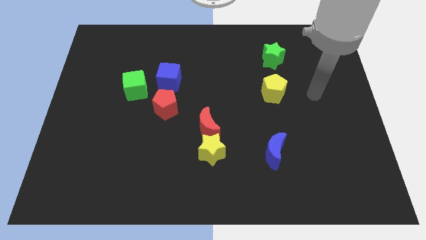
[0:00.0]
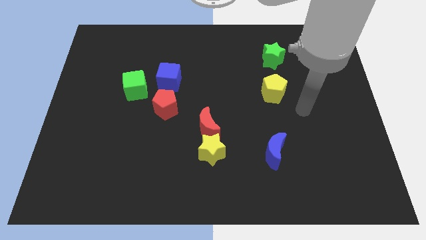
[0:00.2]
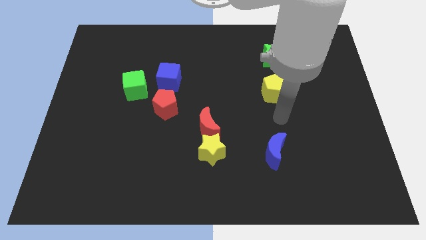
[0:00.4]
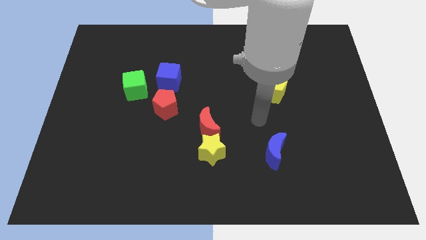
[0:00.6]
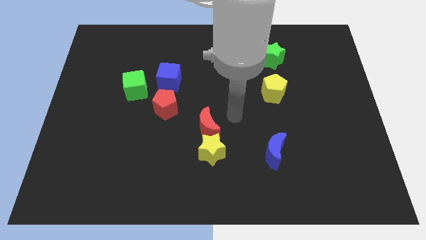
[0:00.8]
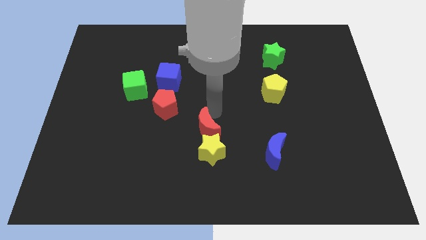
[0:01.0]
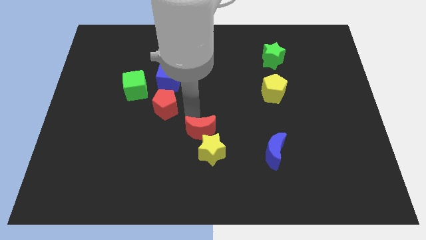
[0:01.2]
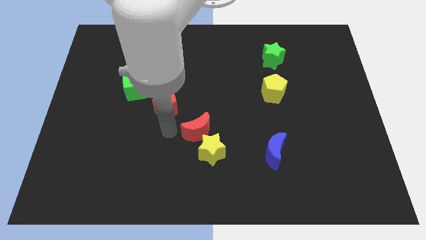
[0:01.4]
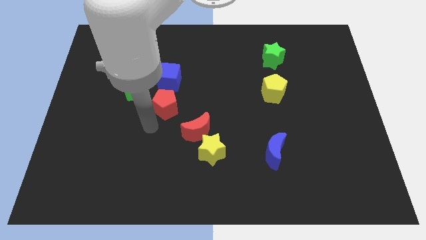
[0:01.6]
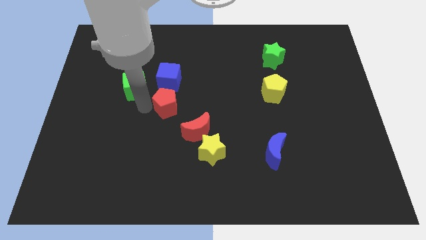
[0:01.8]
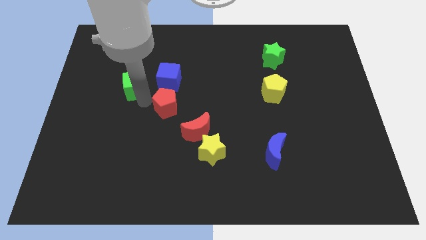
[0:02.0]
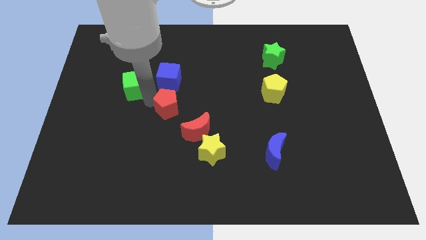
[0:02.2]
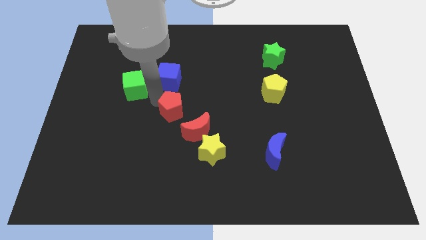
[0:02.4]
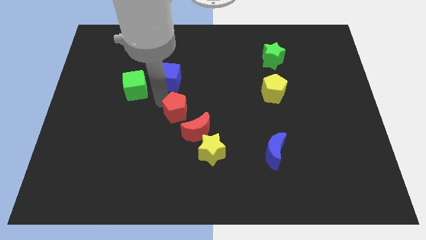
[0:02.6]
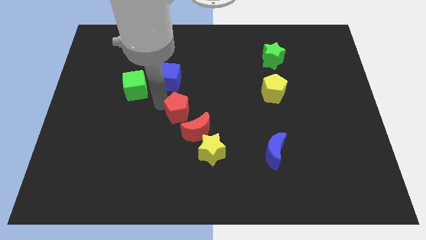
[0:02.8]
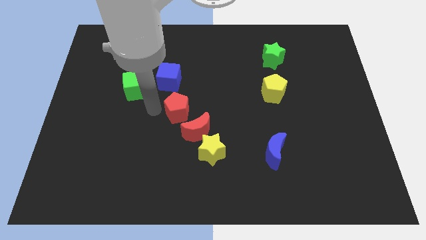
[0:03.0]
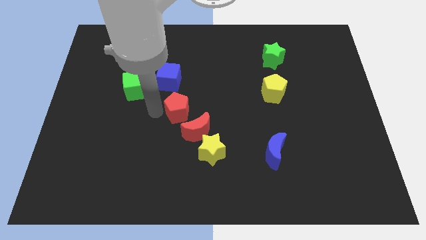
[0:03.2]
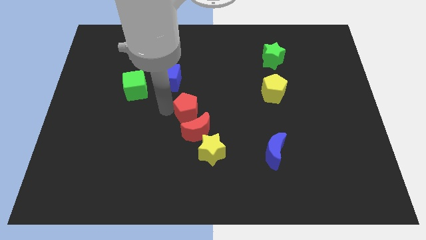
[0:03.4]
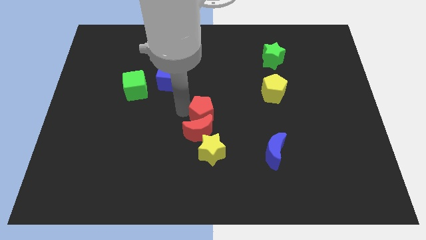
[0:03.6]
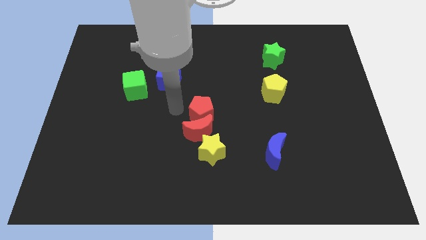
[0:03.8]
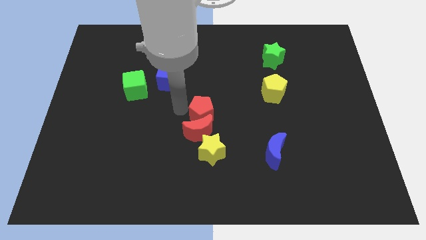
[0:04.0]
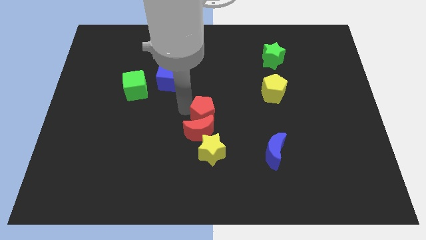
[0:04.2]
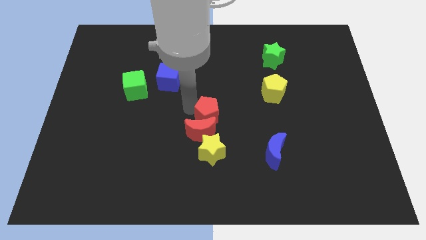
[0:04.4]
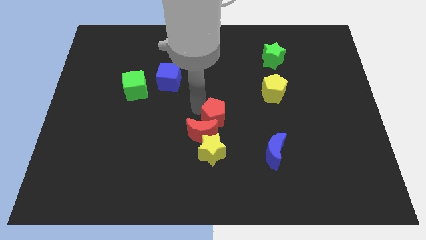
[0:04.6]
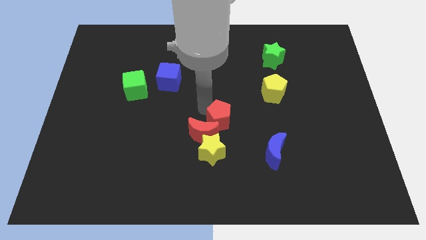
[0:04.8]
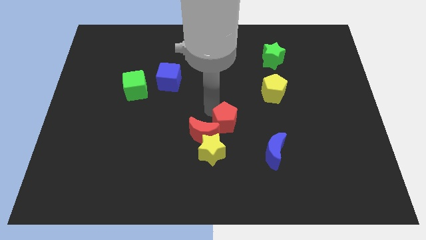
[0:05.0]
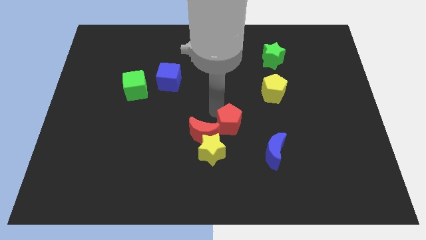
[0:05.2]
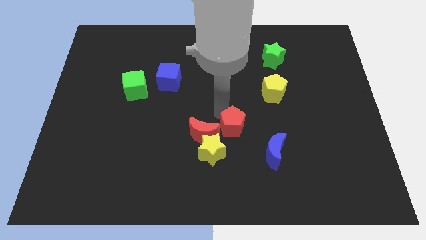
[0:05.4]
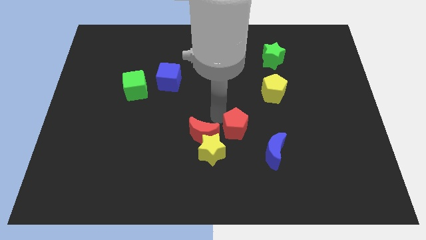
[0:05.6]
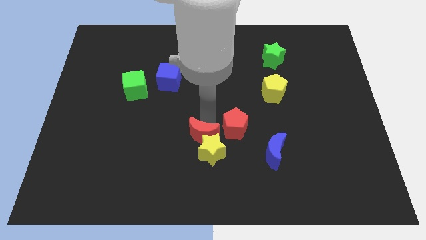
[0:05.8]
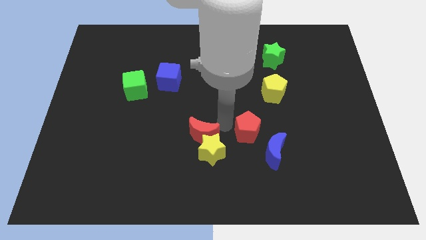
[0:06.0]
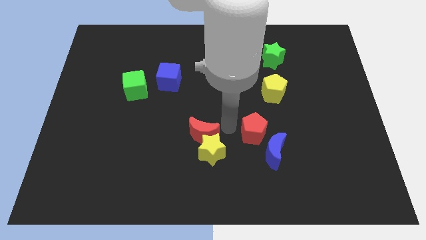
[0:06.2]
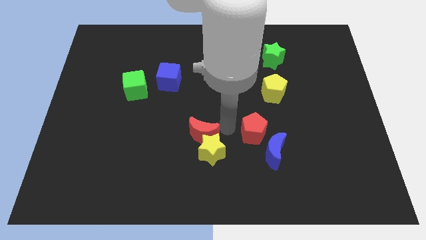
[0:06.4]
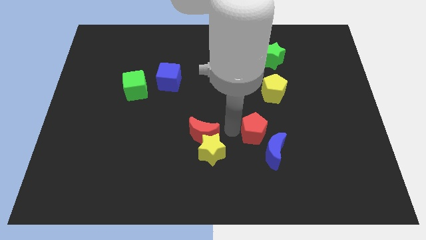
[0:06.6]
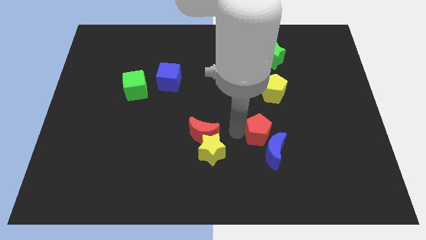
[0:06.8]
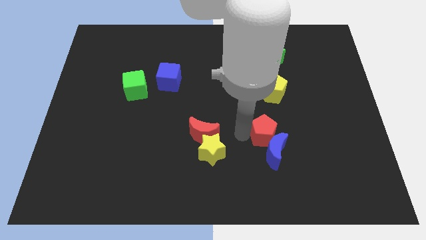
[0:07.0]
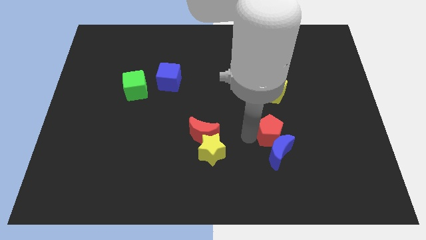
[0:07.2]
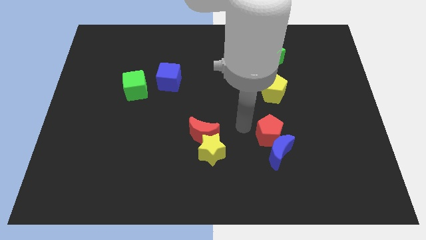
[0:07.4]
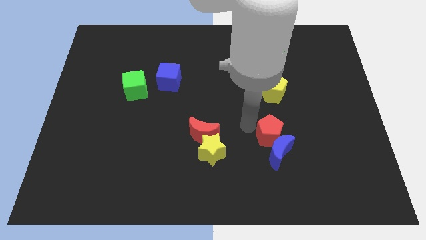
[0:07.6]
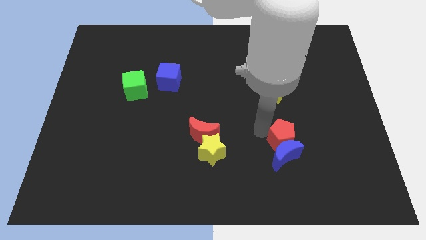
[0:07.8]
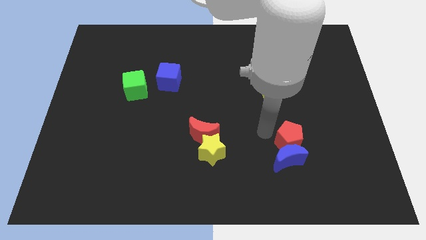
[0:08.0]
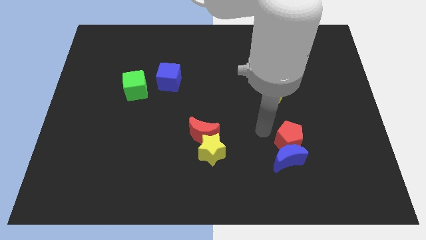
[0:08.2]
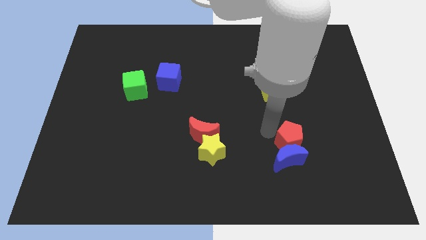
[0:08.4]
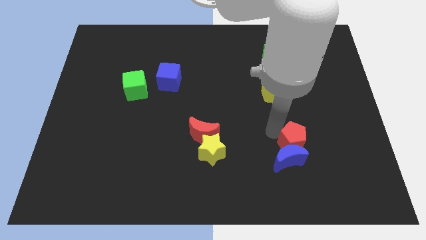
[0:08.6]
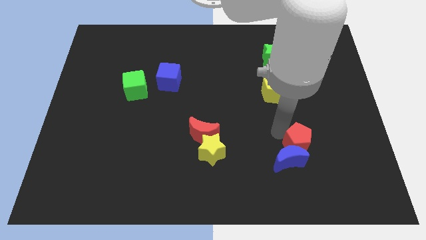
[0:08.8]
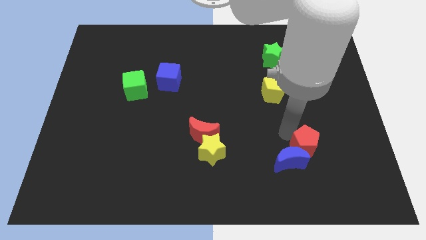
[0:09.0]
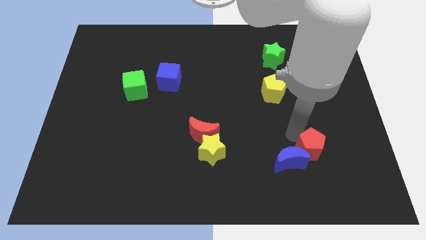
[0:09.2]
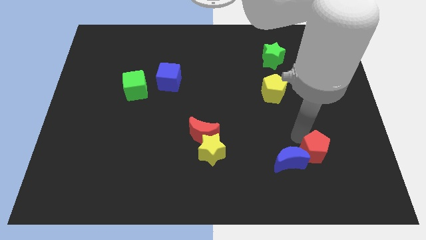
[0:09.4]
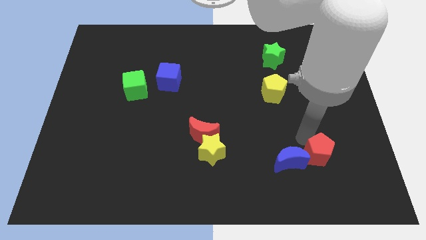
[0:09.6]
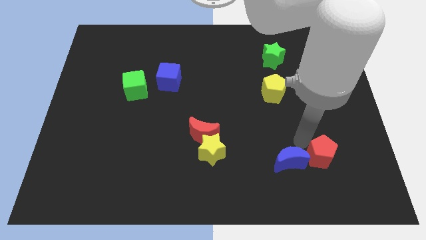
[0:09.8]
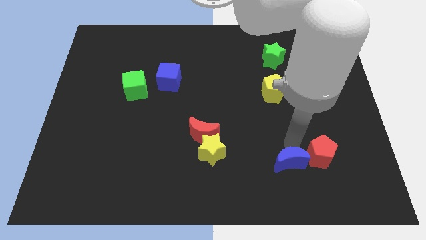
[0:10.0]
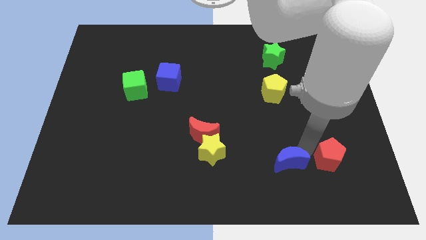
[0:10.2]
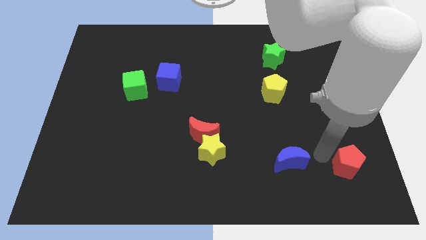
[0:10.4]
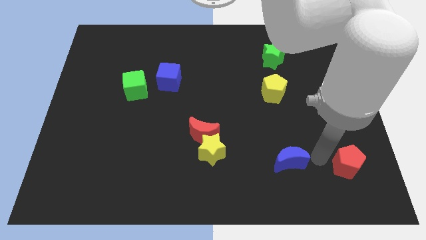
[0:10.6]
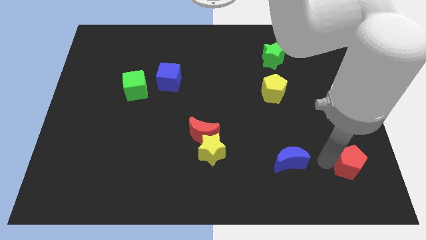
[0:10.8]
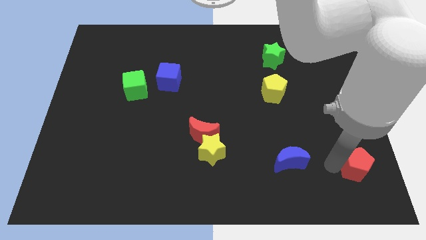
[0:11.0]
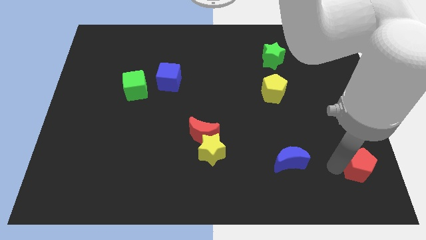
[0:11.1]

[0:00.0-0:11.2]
move the red pentagon to the bottom right

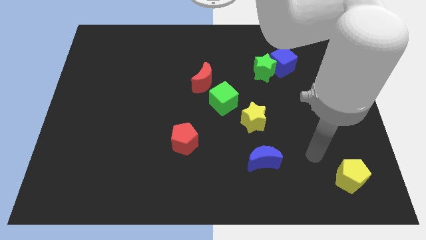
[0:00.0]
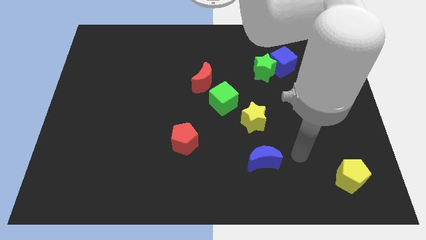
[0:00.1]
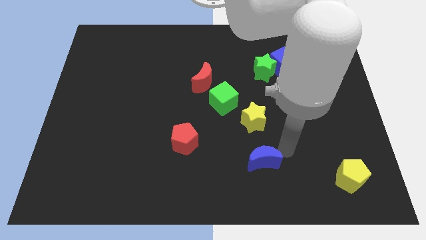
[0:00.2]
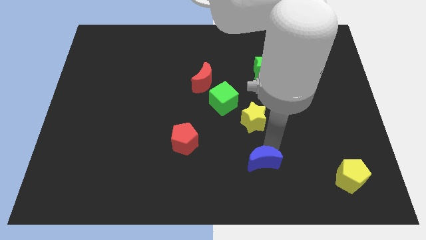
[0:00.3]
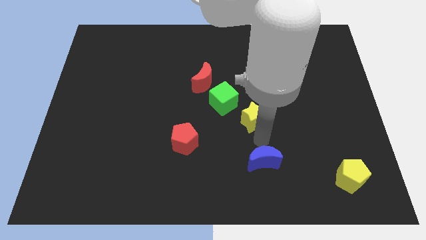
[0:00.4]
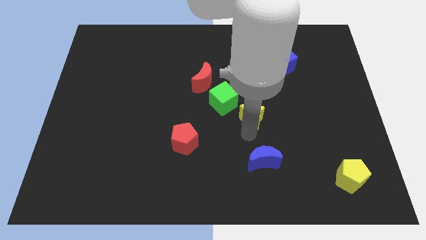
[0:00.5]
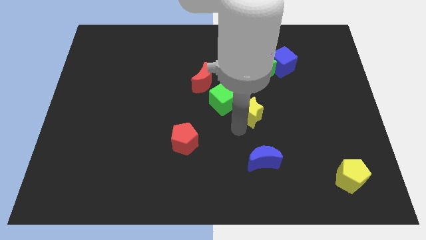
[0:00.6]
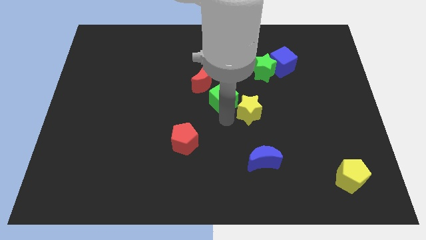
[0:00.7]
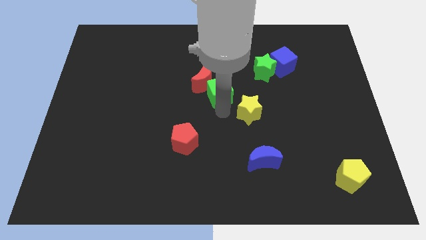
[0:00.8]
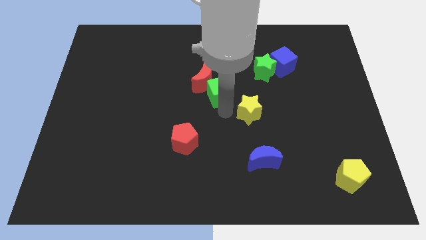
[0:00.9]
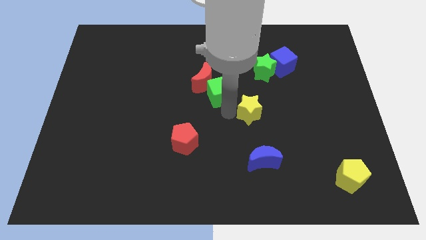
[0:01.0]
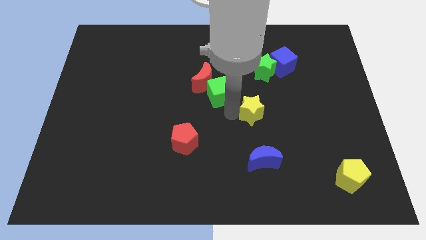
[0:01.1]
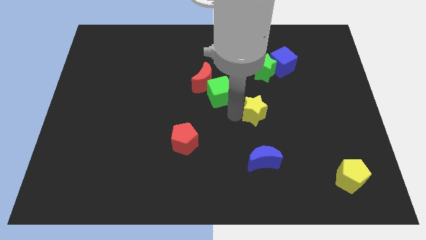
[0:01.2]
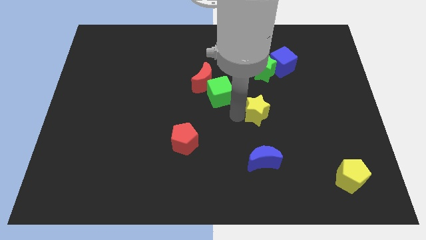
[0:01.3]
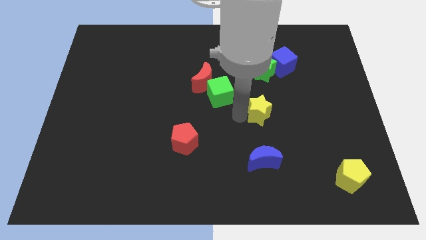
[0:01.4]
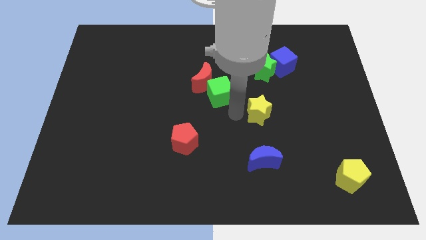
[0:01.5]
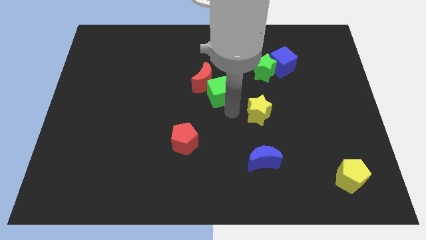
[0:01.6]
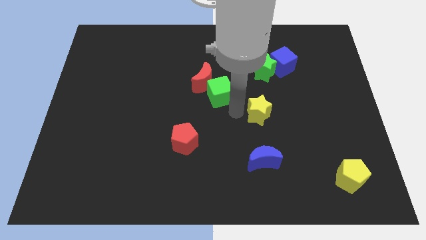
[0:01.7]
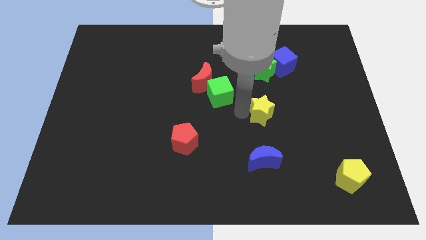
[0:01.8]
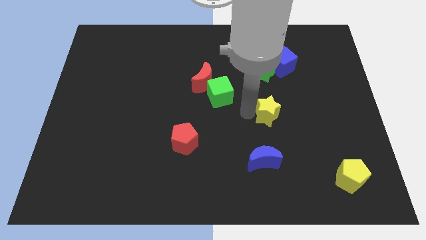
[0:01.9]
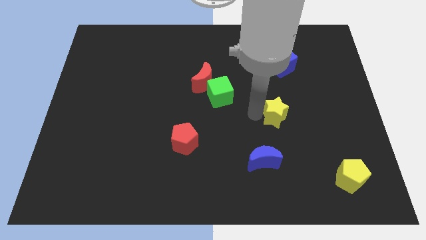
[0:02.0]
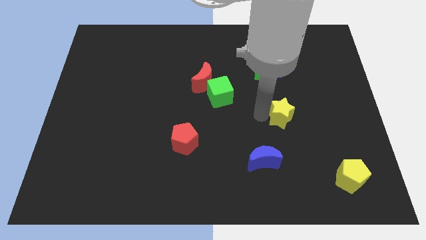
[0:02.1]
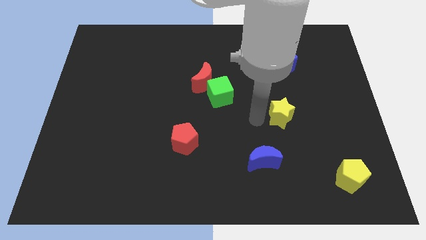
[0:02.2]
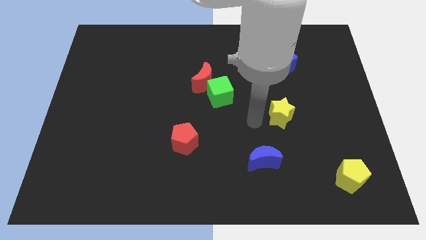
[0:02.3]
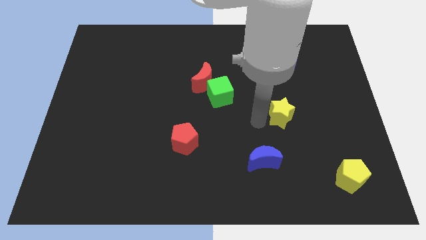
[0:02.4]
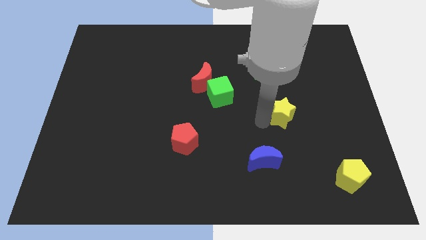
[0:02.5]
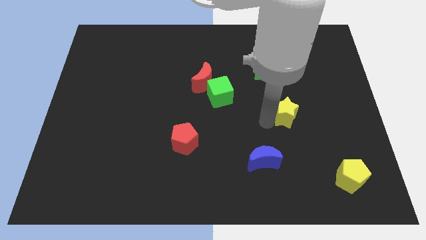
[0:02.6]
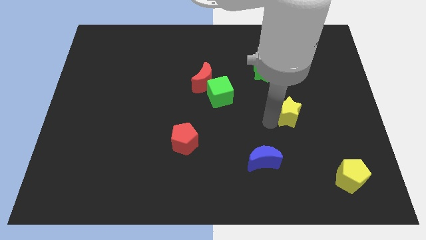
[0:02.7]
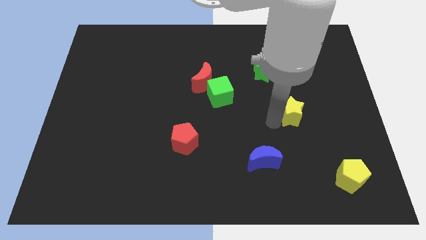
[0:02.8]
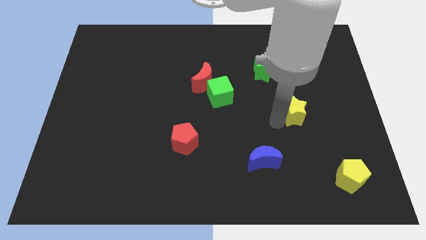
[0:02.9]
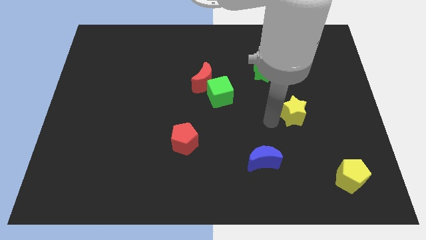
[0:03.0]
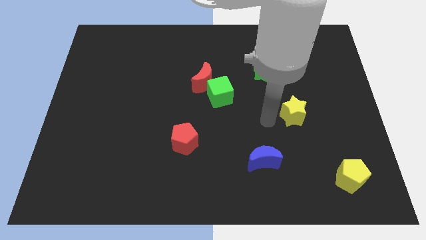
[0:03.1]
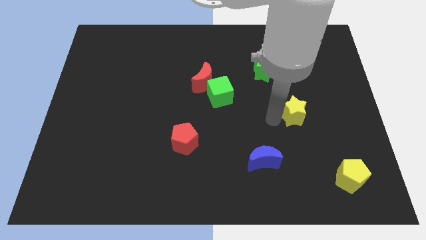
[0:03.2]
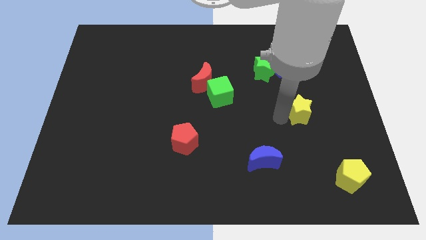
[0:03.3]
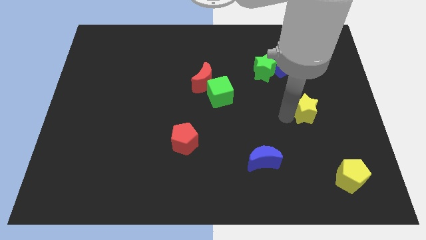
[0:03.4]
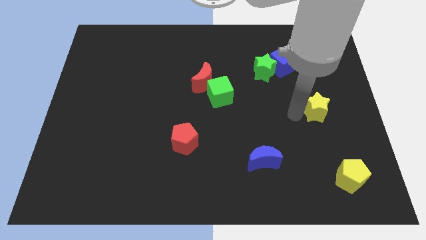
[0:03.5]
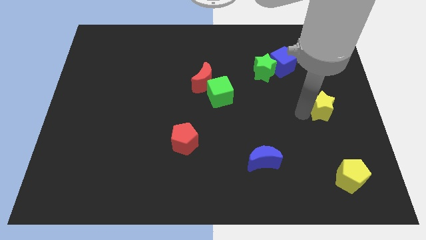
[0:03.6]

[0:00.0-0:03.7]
put the yellow star to the center right
